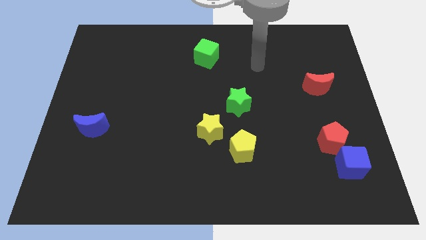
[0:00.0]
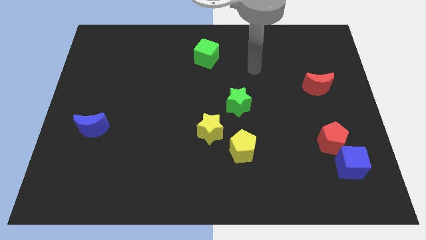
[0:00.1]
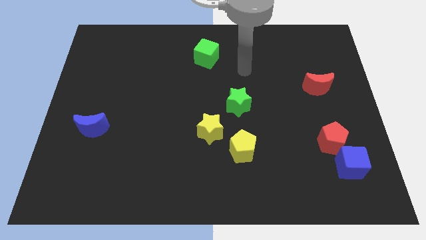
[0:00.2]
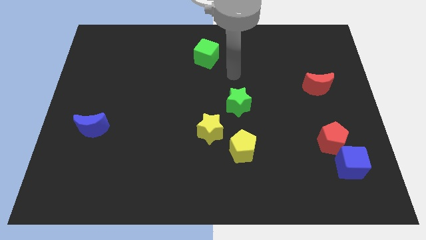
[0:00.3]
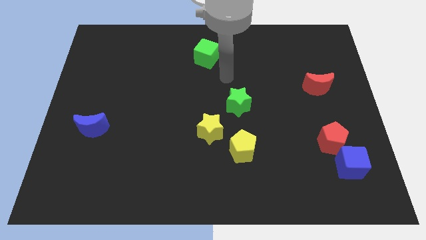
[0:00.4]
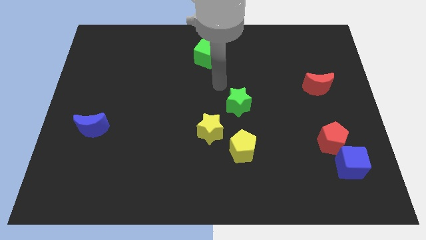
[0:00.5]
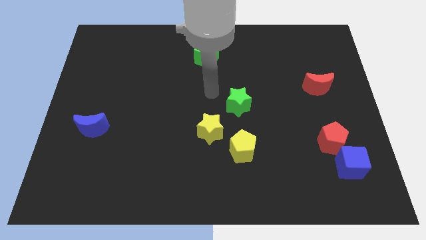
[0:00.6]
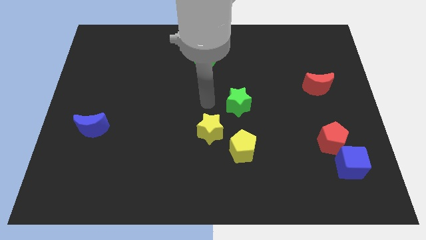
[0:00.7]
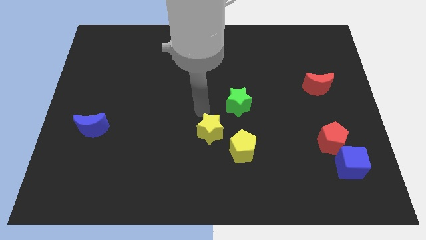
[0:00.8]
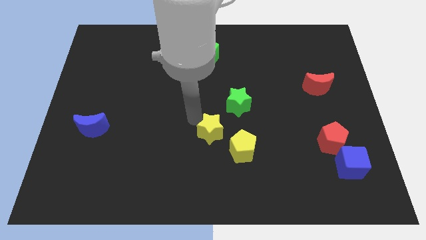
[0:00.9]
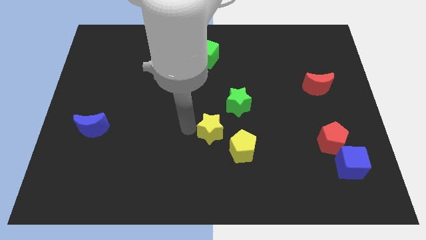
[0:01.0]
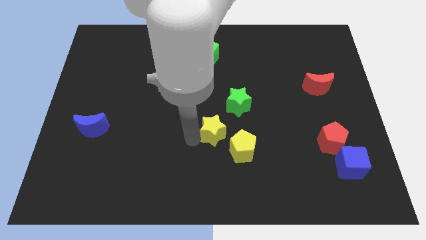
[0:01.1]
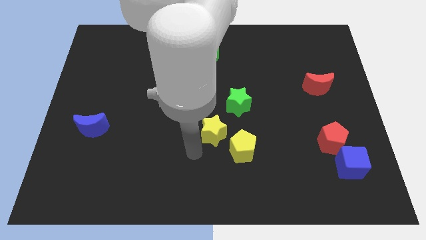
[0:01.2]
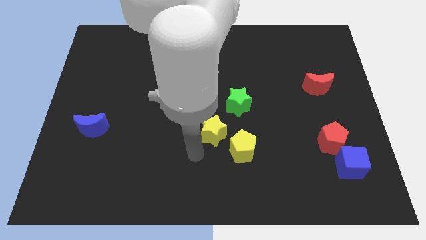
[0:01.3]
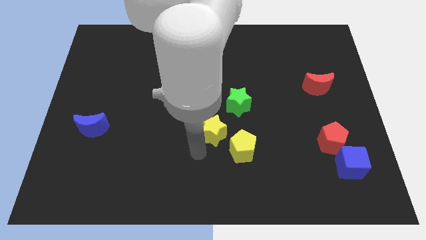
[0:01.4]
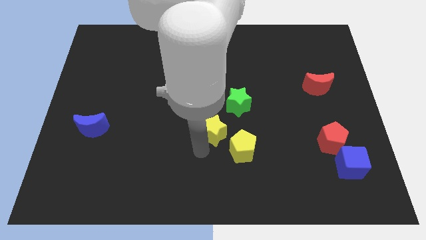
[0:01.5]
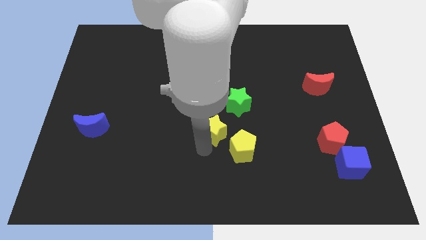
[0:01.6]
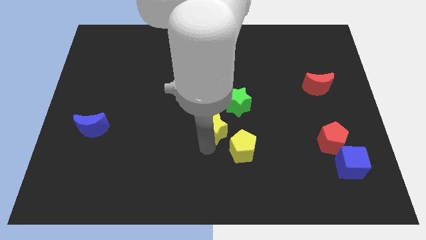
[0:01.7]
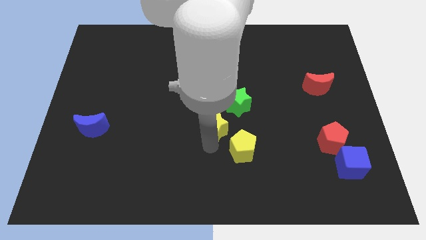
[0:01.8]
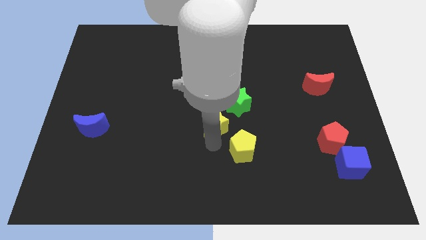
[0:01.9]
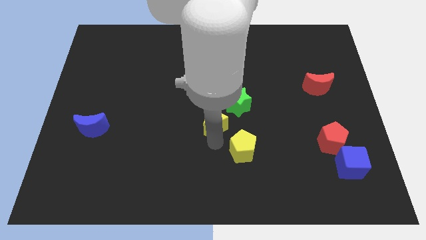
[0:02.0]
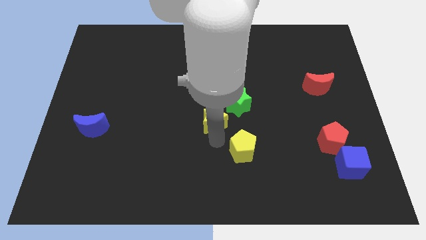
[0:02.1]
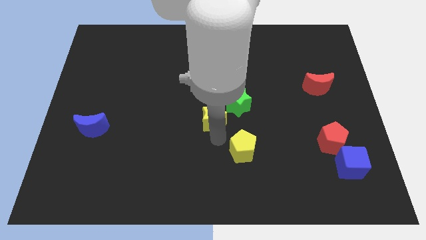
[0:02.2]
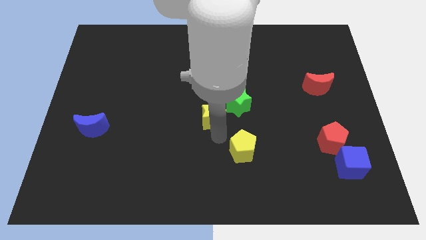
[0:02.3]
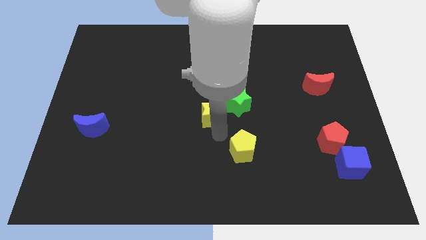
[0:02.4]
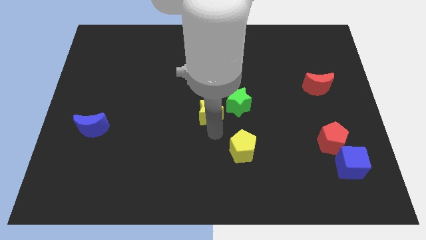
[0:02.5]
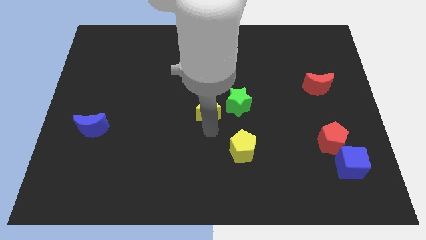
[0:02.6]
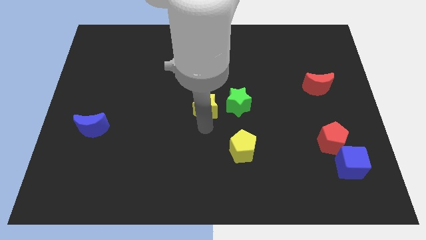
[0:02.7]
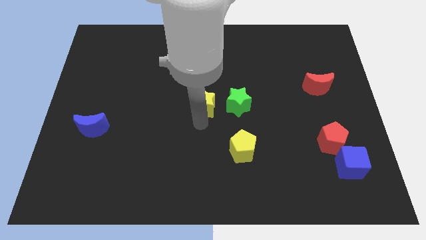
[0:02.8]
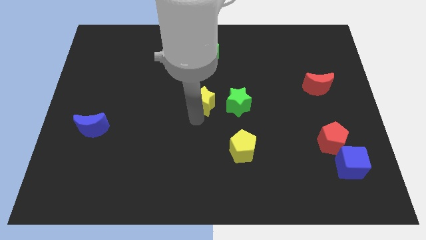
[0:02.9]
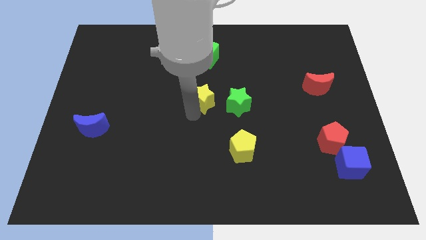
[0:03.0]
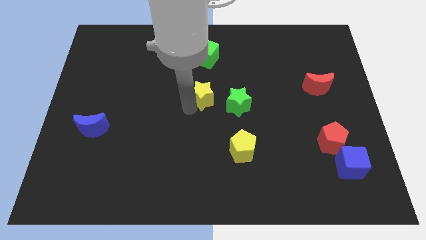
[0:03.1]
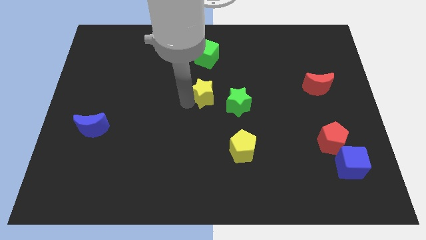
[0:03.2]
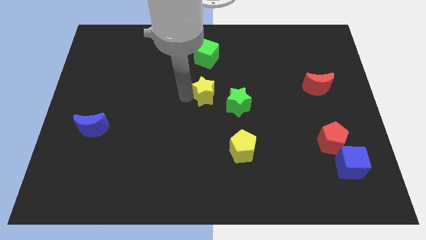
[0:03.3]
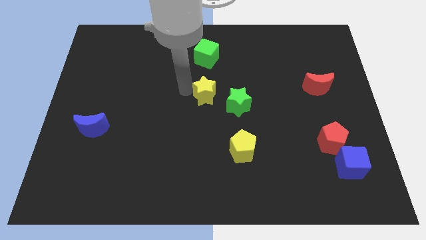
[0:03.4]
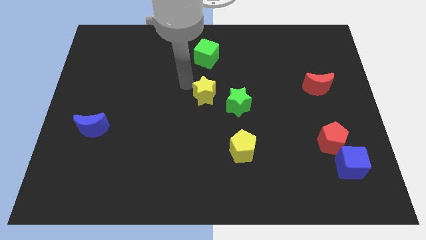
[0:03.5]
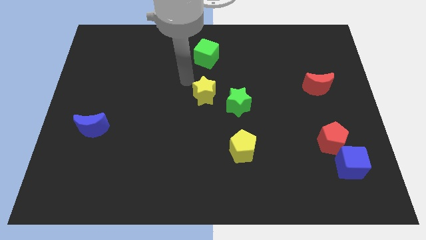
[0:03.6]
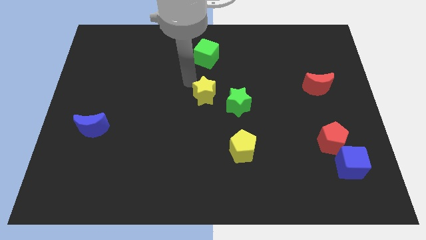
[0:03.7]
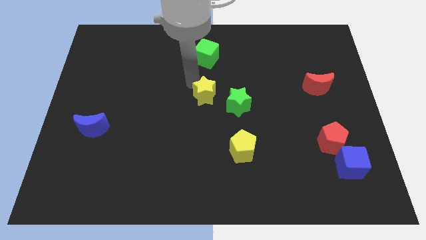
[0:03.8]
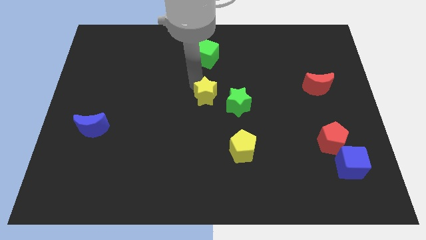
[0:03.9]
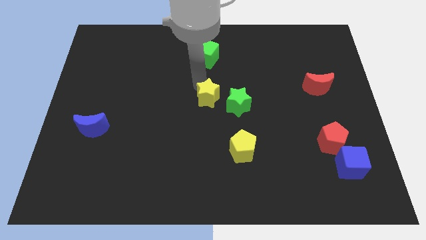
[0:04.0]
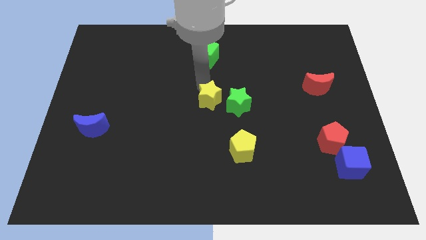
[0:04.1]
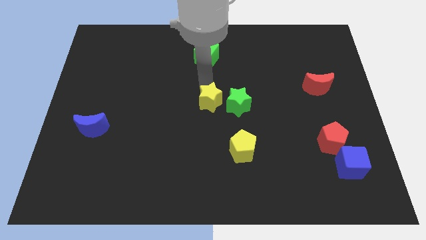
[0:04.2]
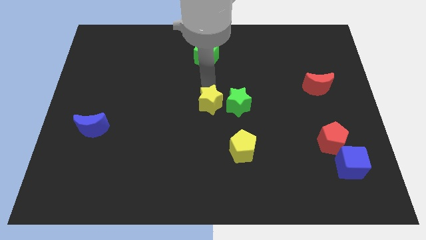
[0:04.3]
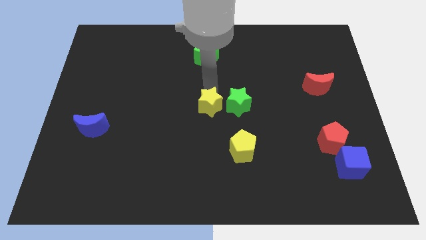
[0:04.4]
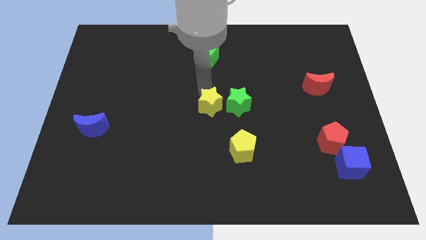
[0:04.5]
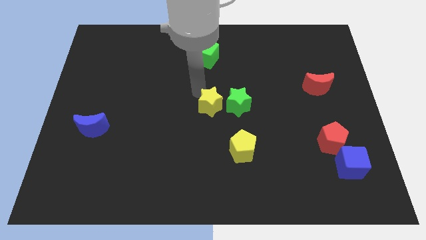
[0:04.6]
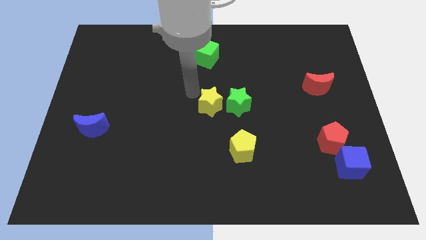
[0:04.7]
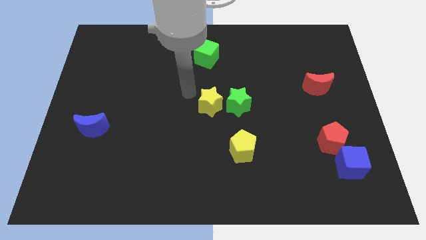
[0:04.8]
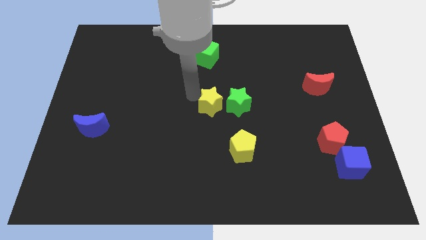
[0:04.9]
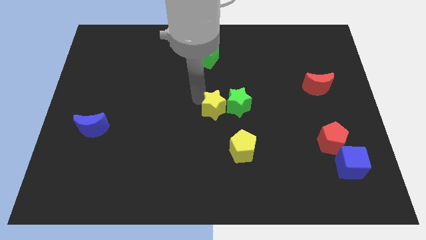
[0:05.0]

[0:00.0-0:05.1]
put the yellow star next to the green star

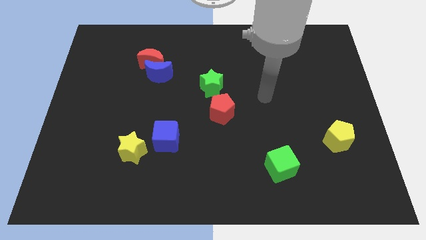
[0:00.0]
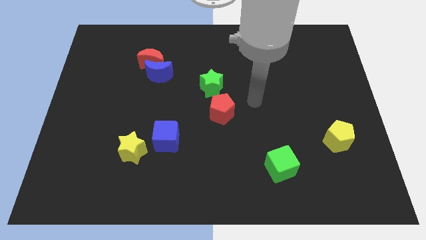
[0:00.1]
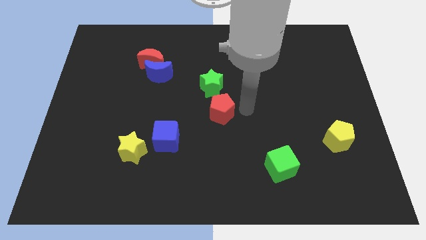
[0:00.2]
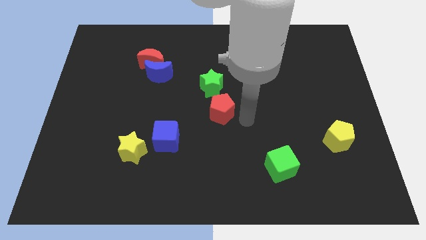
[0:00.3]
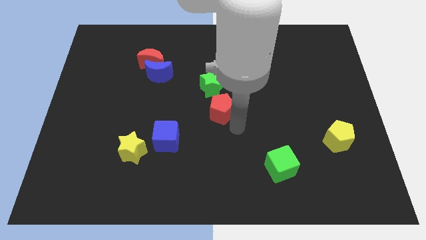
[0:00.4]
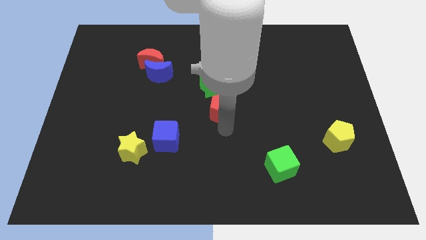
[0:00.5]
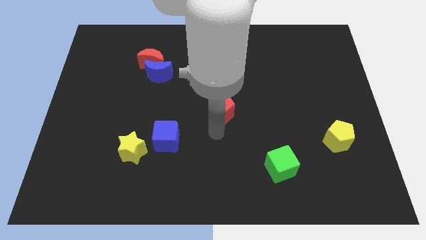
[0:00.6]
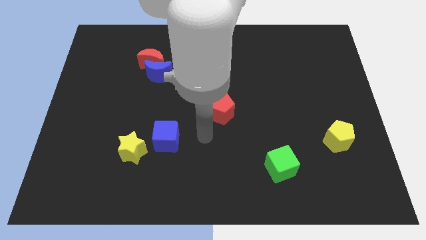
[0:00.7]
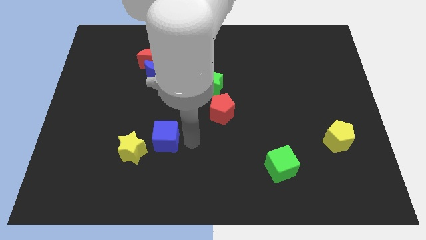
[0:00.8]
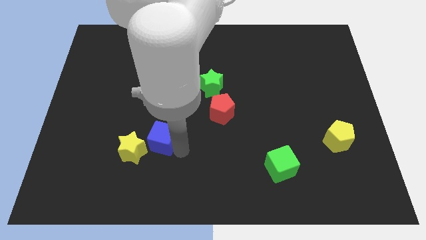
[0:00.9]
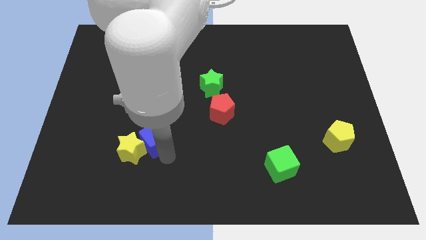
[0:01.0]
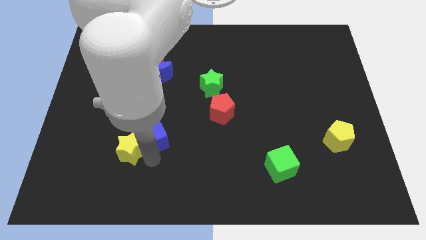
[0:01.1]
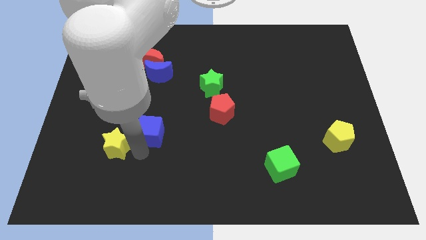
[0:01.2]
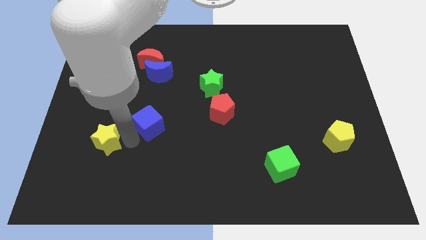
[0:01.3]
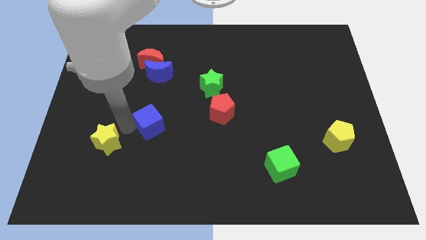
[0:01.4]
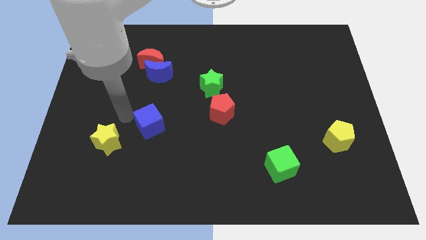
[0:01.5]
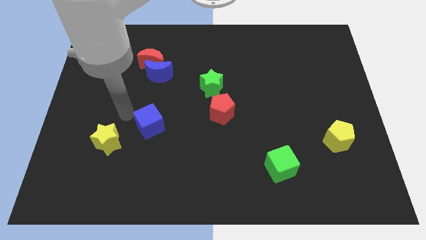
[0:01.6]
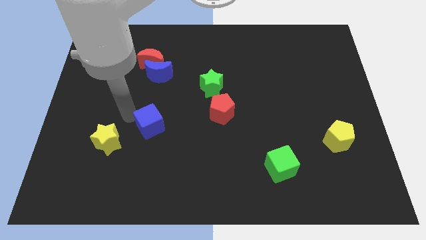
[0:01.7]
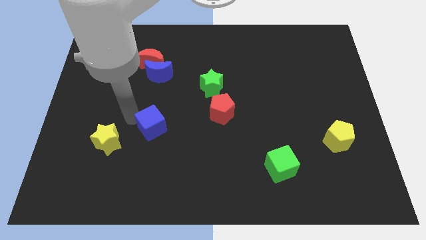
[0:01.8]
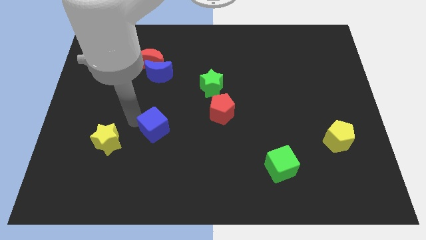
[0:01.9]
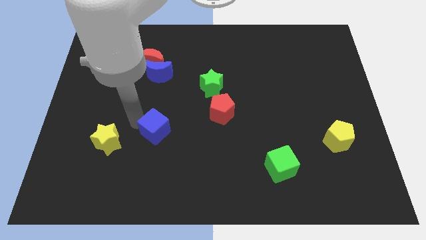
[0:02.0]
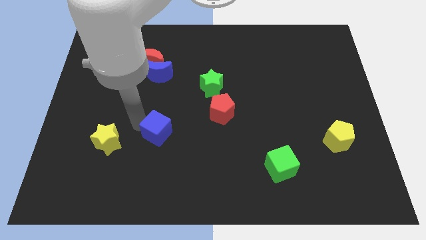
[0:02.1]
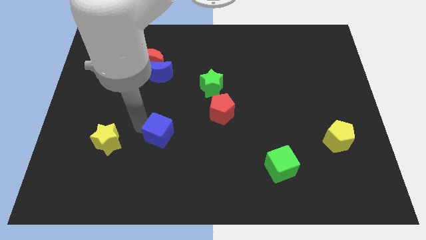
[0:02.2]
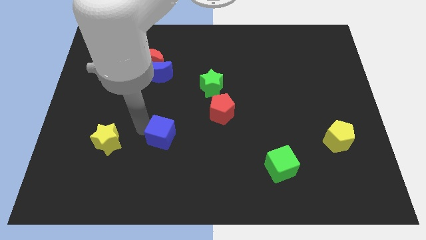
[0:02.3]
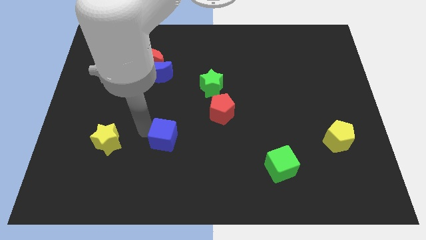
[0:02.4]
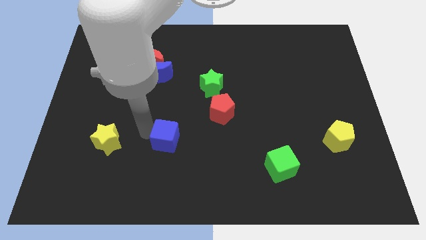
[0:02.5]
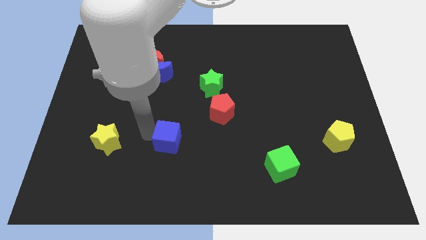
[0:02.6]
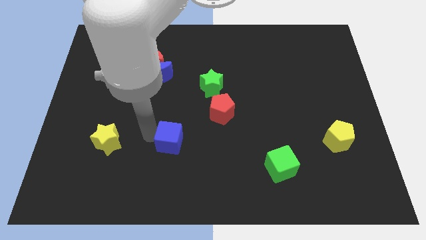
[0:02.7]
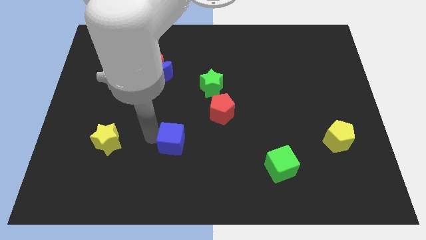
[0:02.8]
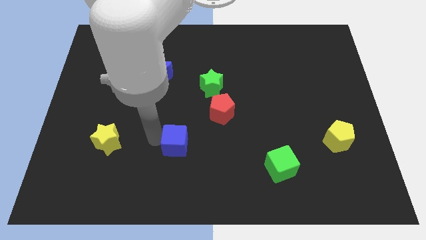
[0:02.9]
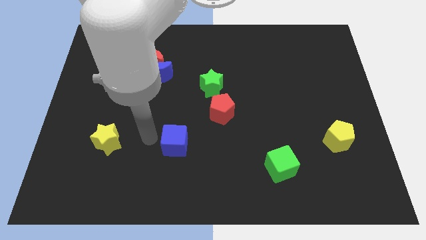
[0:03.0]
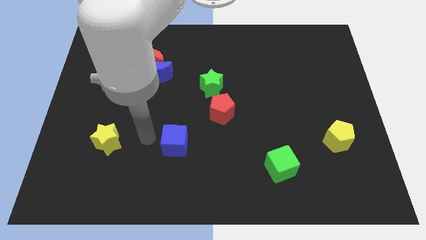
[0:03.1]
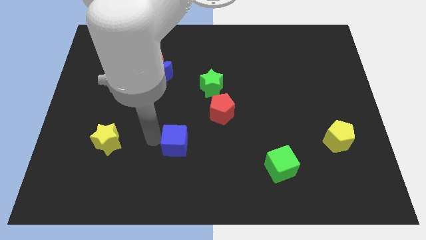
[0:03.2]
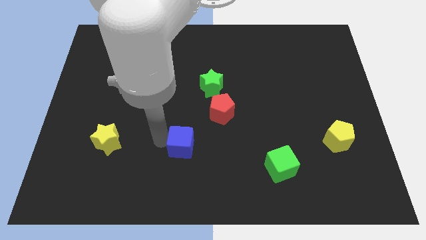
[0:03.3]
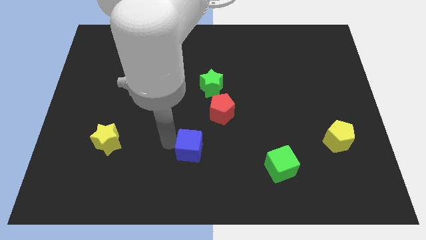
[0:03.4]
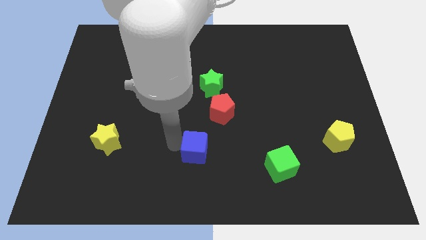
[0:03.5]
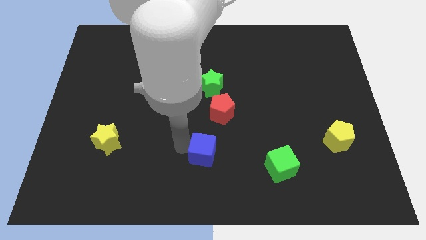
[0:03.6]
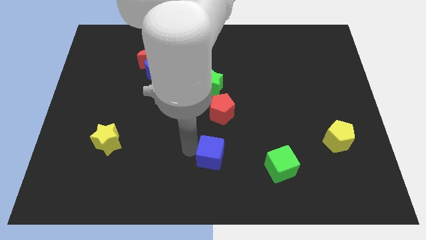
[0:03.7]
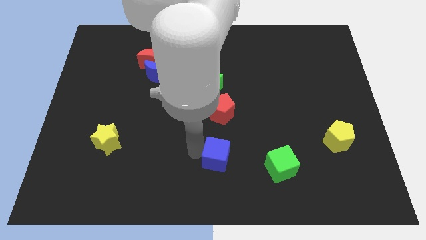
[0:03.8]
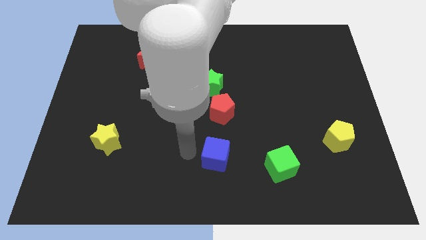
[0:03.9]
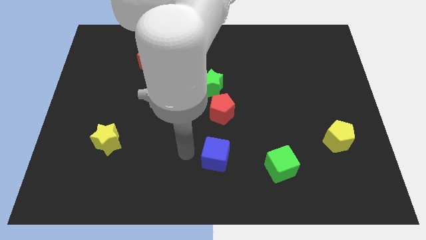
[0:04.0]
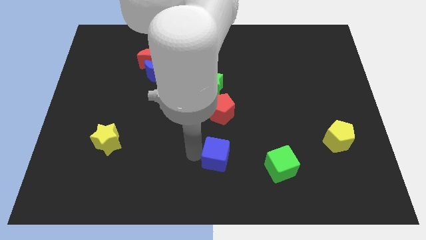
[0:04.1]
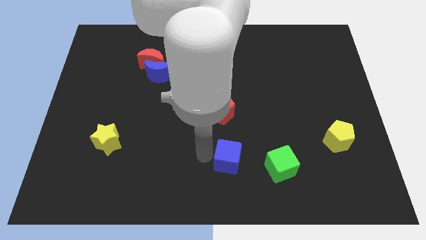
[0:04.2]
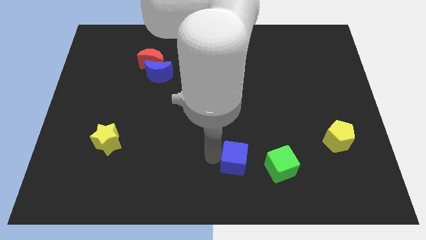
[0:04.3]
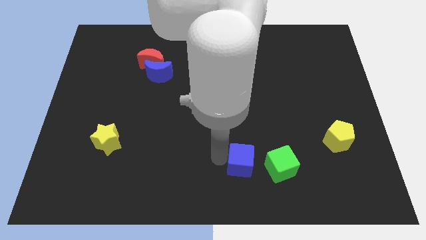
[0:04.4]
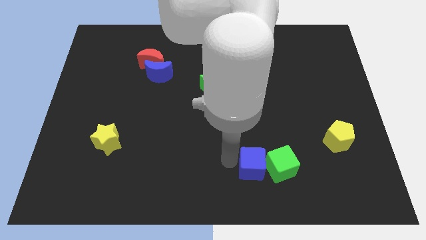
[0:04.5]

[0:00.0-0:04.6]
put the blue cube towards the green cube
